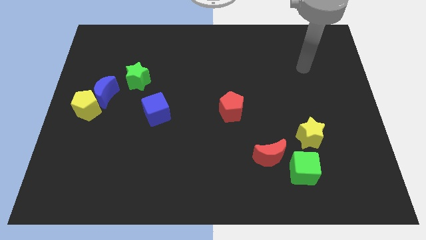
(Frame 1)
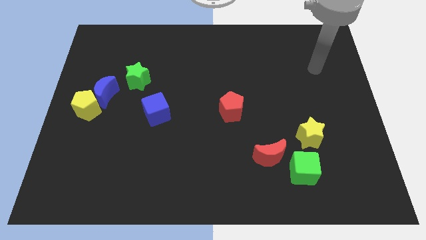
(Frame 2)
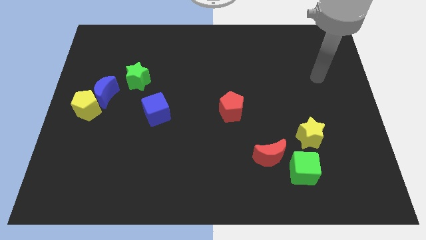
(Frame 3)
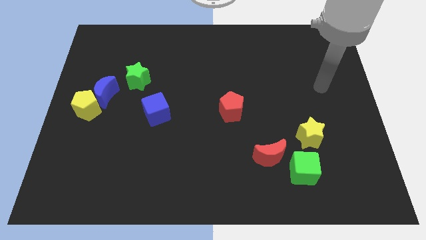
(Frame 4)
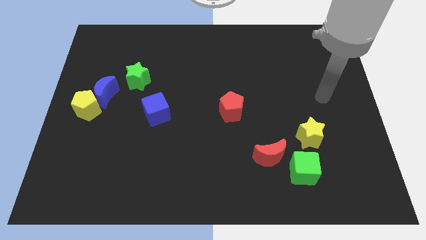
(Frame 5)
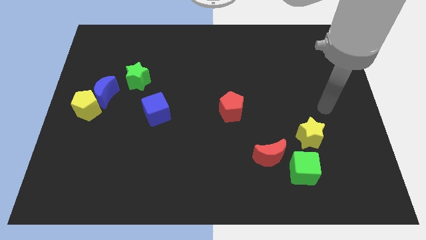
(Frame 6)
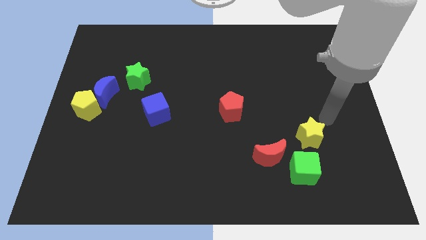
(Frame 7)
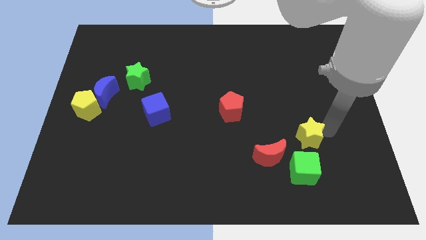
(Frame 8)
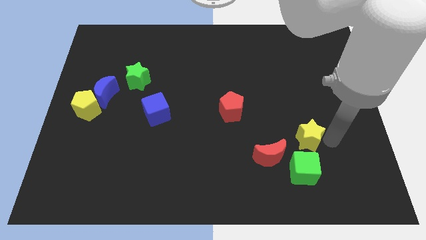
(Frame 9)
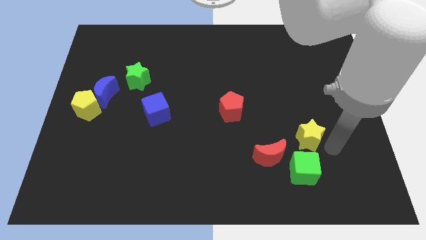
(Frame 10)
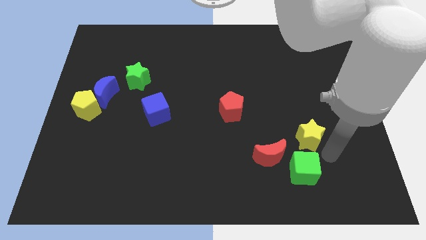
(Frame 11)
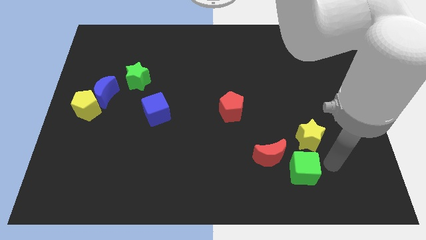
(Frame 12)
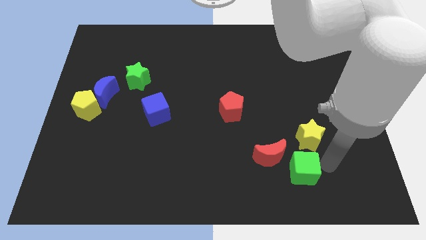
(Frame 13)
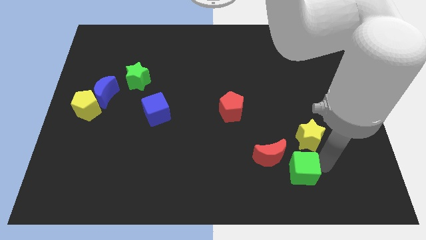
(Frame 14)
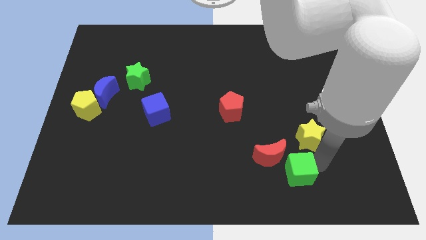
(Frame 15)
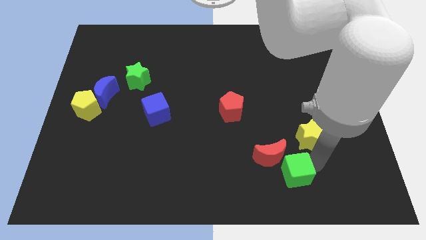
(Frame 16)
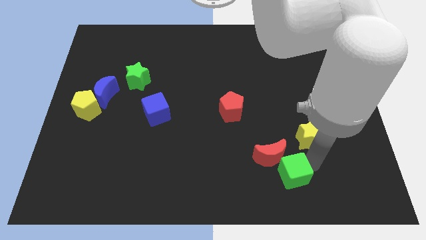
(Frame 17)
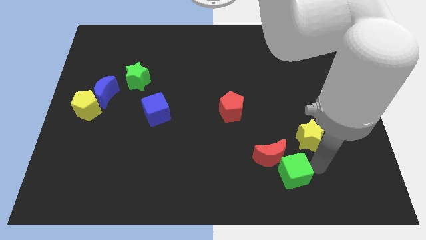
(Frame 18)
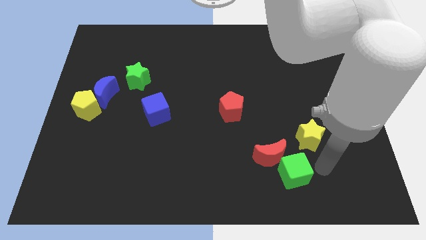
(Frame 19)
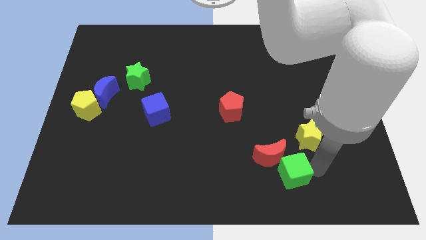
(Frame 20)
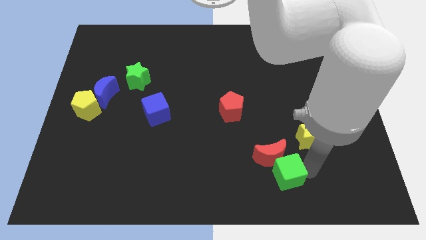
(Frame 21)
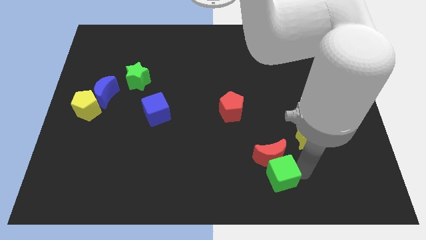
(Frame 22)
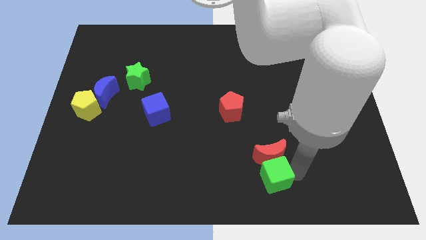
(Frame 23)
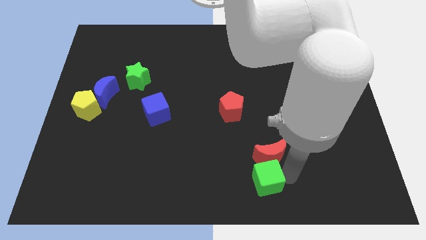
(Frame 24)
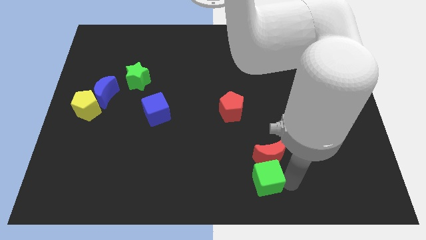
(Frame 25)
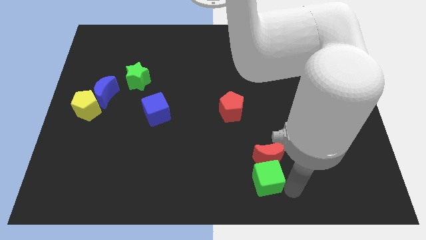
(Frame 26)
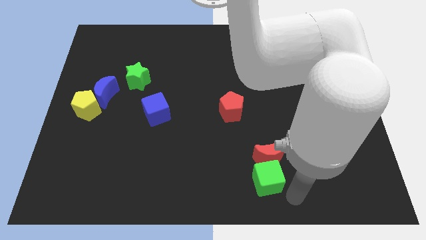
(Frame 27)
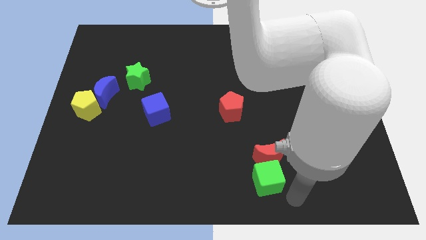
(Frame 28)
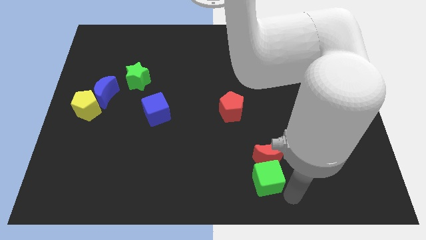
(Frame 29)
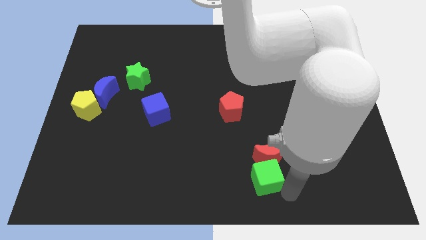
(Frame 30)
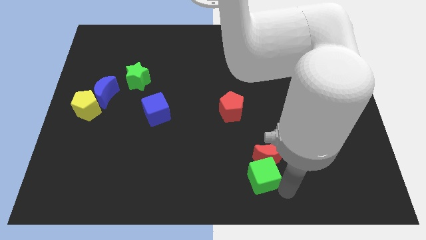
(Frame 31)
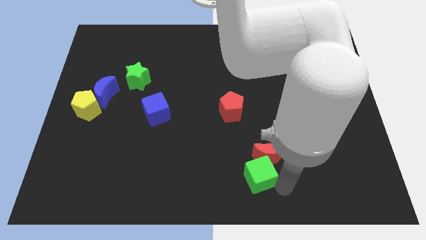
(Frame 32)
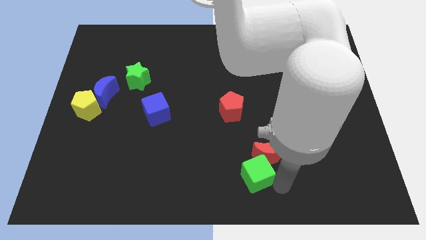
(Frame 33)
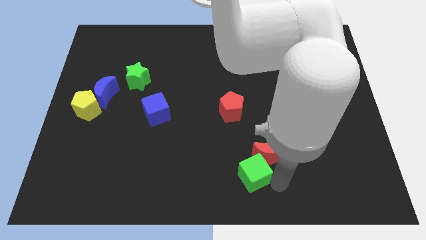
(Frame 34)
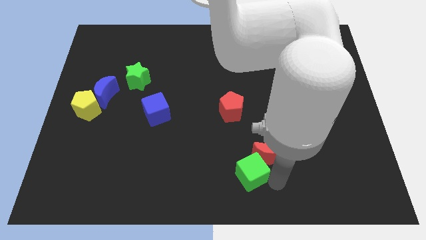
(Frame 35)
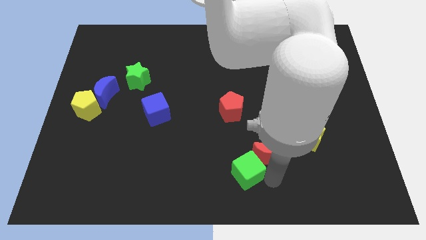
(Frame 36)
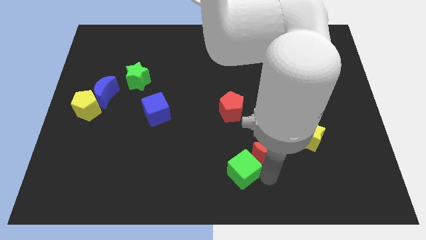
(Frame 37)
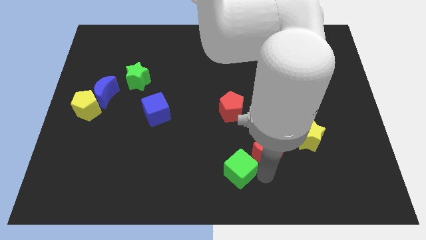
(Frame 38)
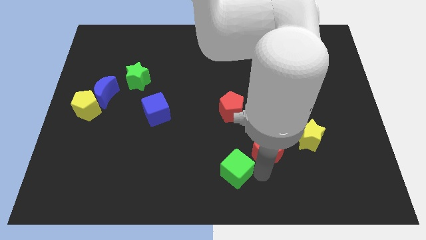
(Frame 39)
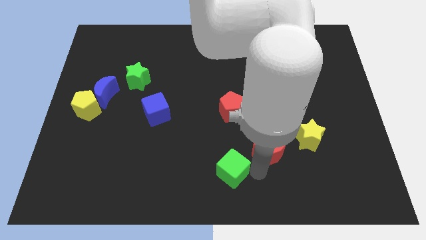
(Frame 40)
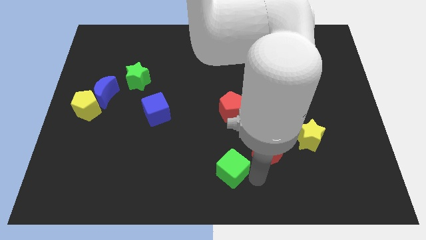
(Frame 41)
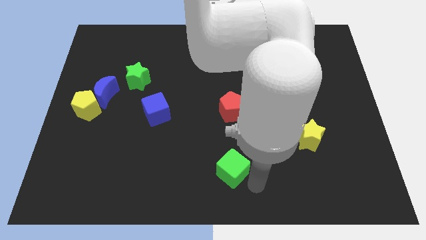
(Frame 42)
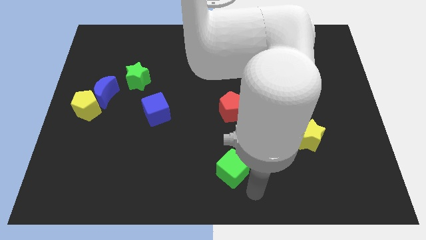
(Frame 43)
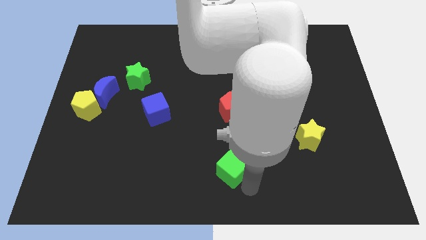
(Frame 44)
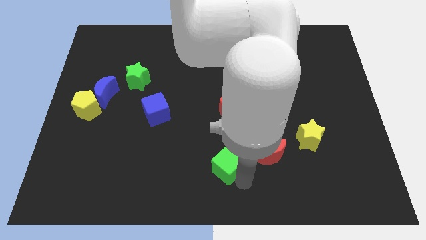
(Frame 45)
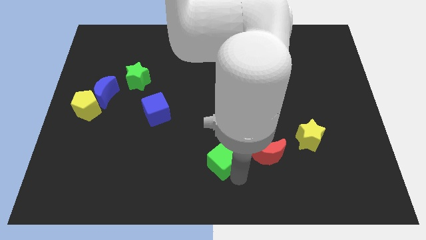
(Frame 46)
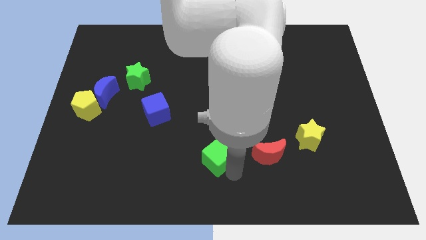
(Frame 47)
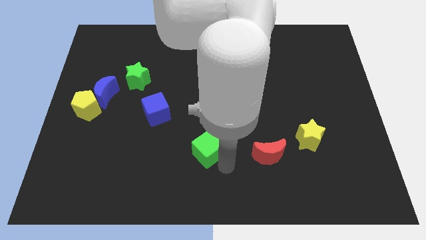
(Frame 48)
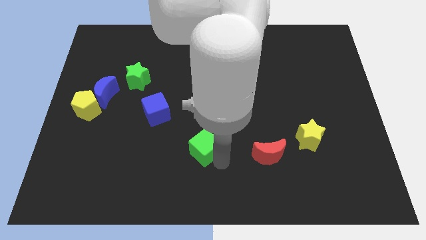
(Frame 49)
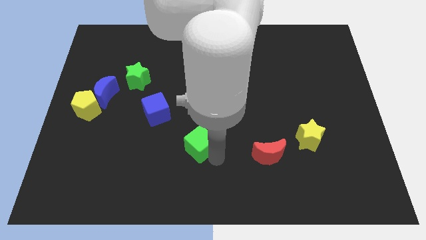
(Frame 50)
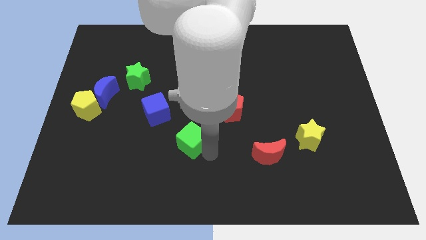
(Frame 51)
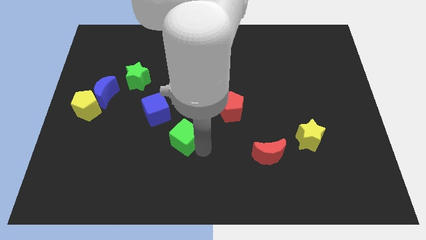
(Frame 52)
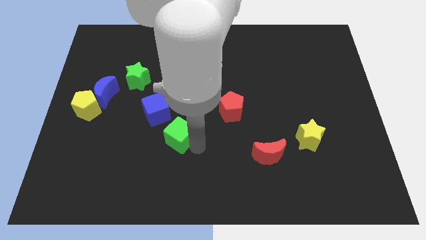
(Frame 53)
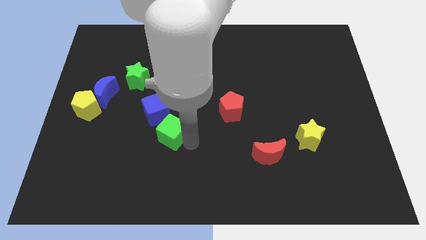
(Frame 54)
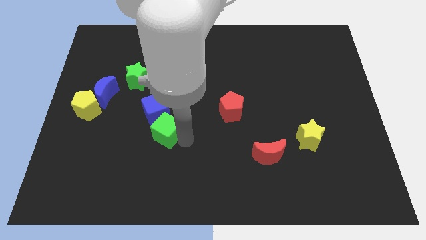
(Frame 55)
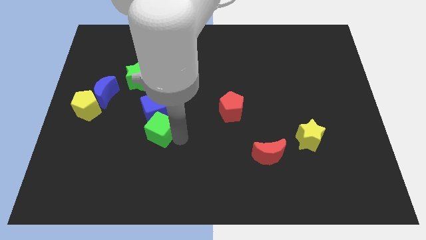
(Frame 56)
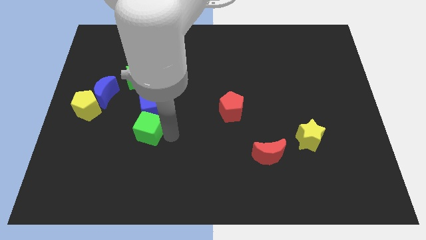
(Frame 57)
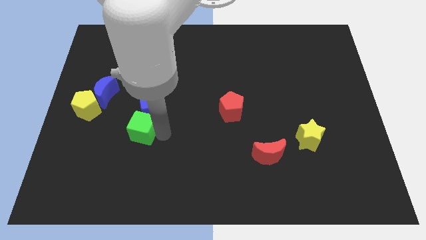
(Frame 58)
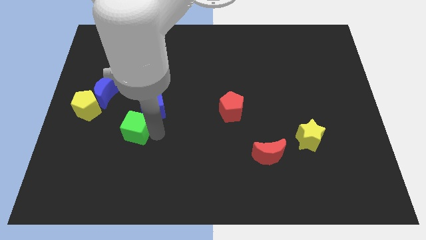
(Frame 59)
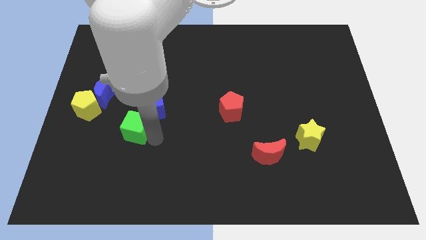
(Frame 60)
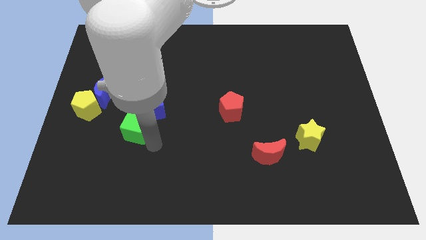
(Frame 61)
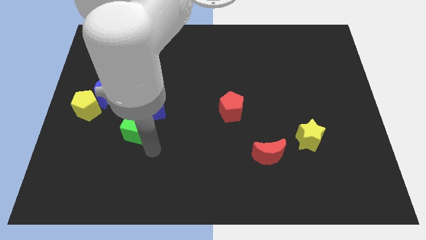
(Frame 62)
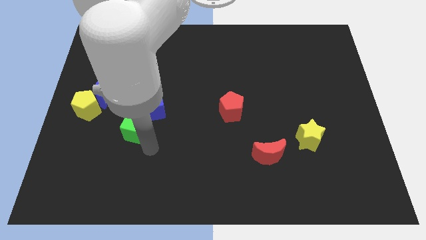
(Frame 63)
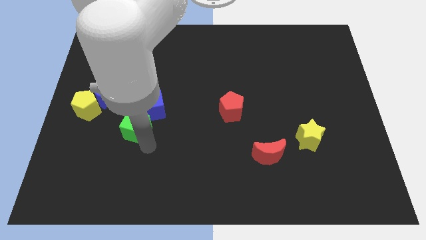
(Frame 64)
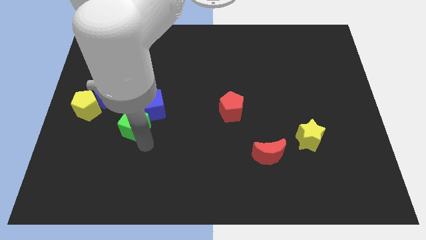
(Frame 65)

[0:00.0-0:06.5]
push the green cube to the bottom right side of the blue moon

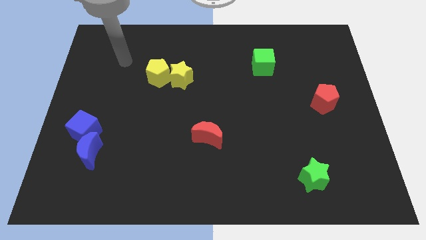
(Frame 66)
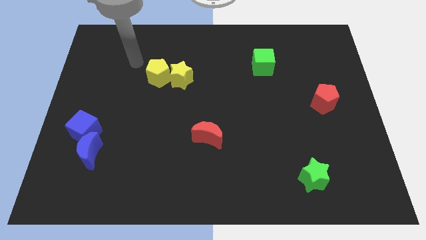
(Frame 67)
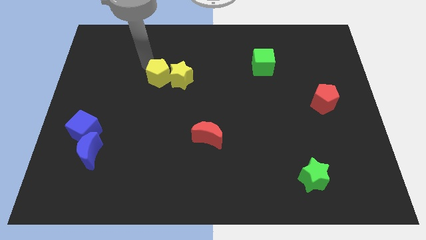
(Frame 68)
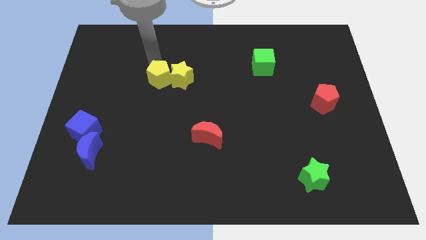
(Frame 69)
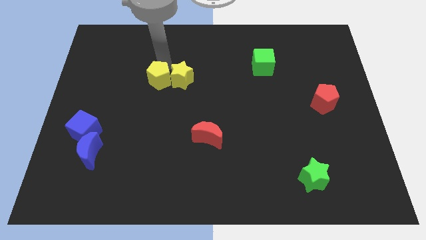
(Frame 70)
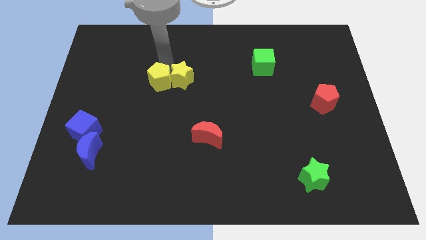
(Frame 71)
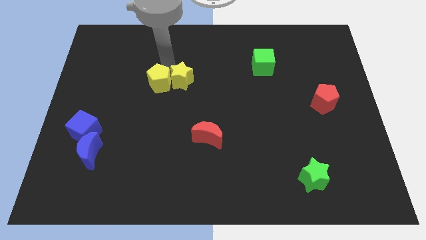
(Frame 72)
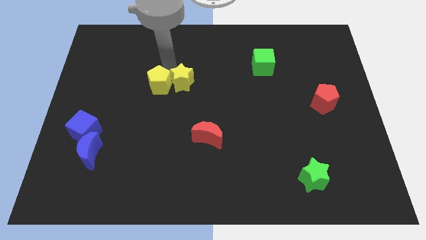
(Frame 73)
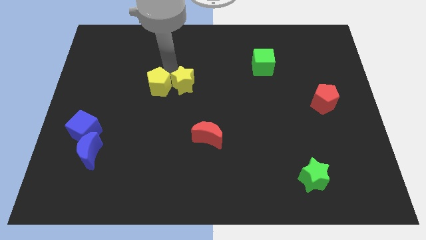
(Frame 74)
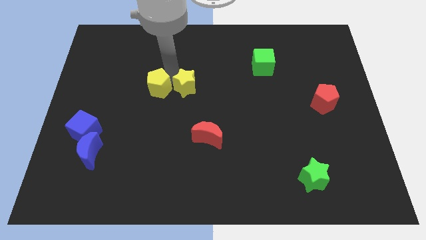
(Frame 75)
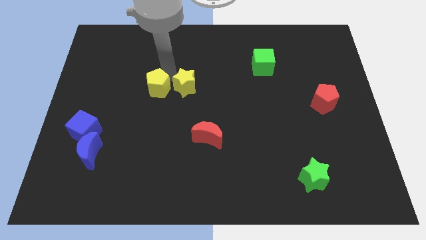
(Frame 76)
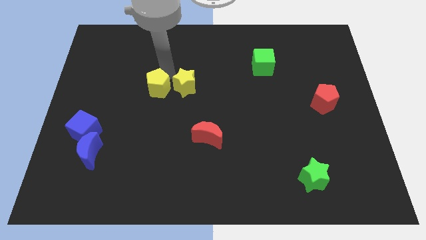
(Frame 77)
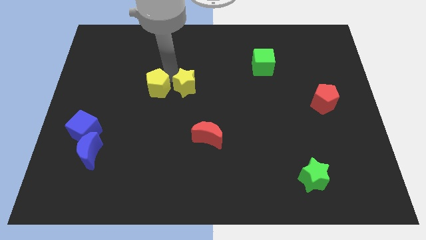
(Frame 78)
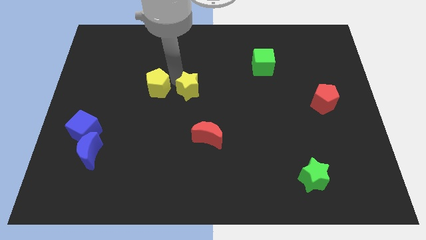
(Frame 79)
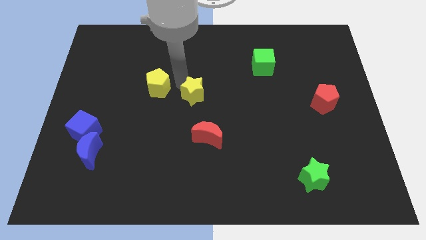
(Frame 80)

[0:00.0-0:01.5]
move the yellow star to the top of the red moon
